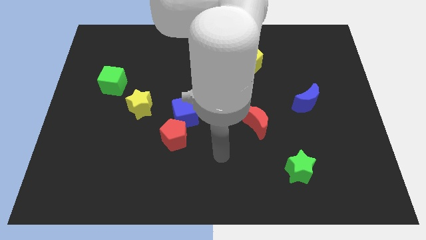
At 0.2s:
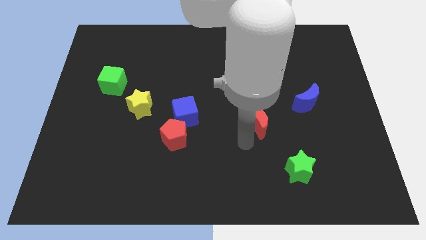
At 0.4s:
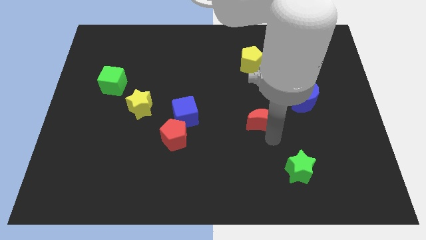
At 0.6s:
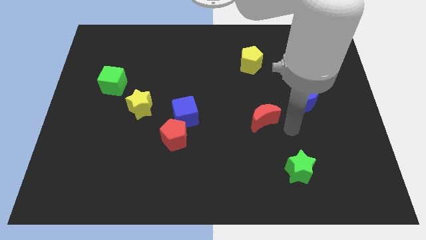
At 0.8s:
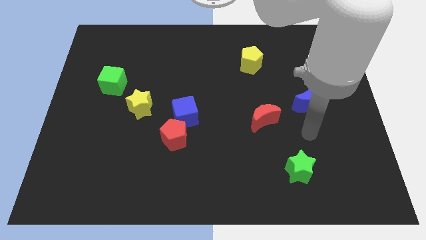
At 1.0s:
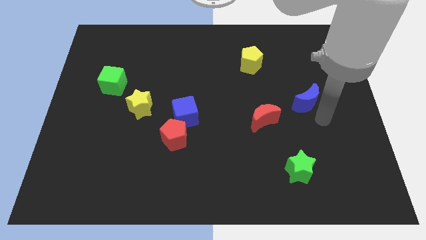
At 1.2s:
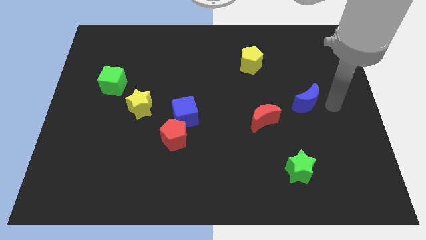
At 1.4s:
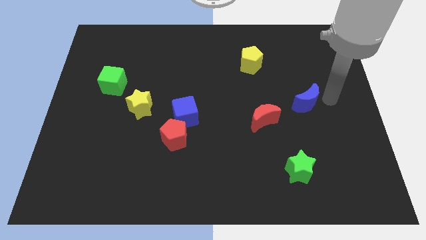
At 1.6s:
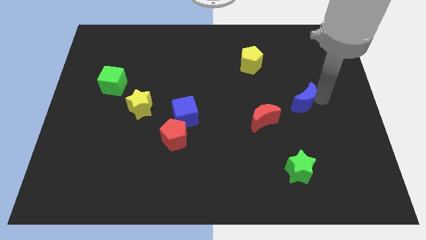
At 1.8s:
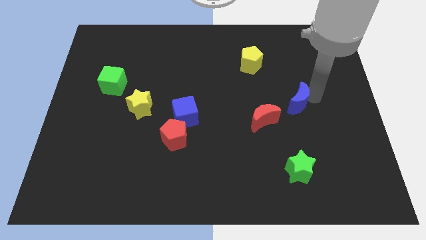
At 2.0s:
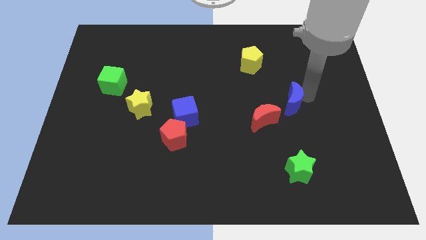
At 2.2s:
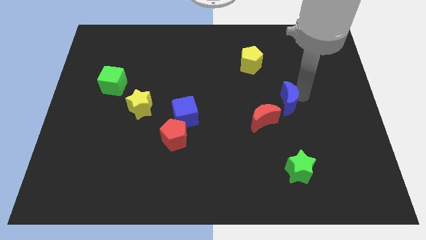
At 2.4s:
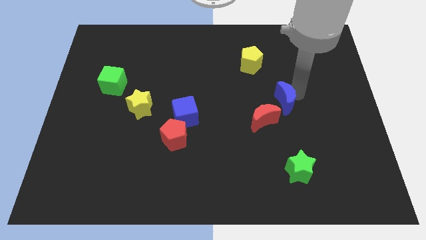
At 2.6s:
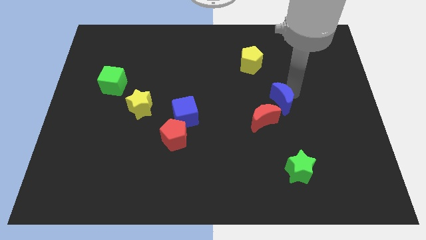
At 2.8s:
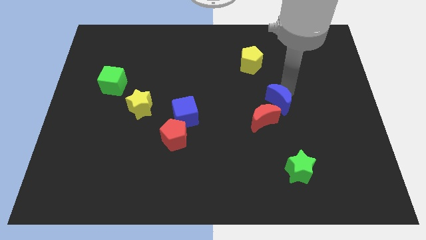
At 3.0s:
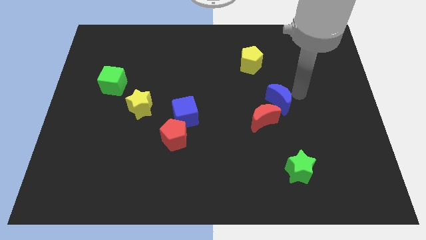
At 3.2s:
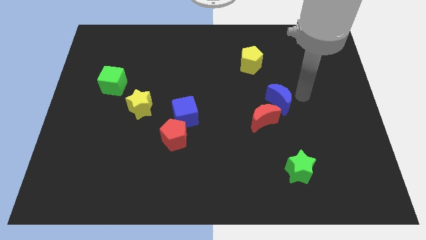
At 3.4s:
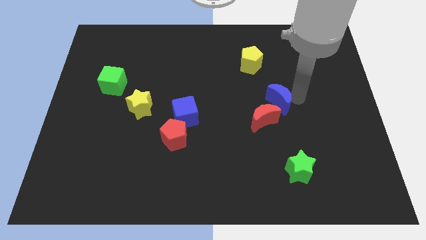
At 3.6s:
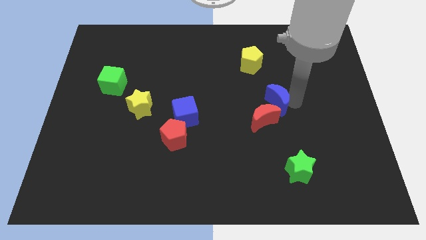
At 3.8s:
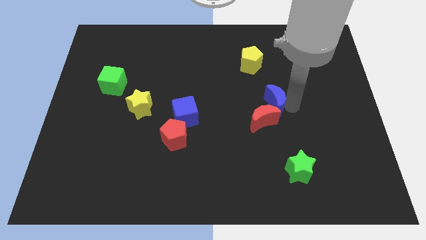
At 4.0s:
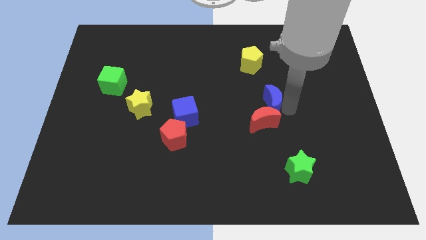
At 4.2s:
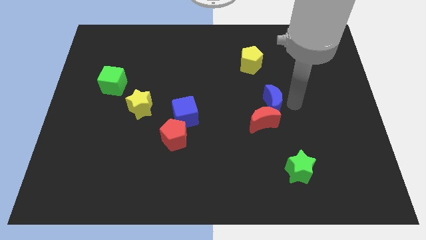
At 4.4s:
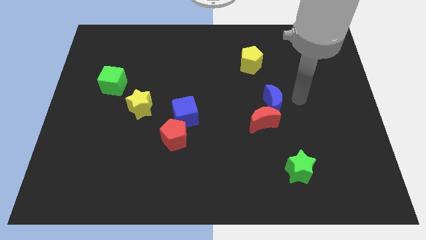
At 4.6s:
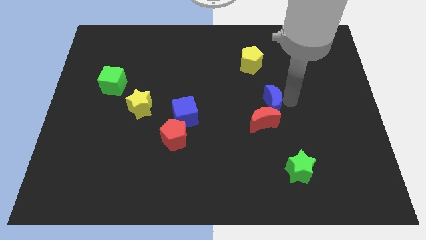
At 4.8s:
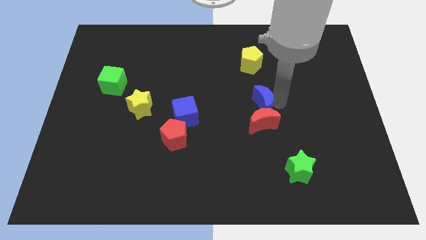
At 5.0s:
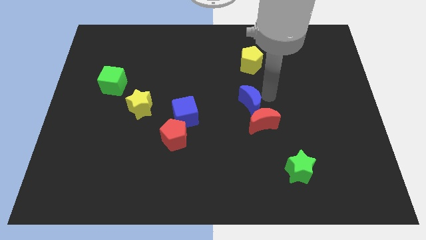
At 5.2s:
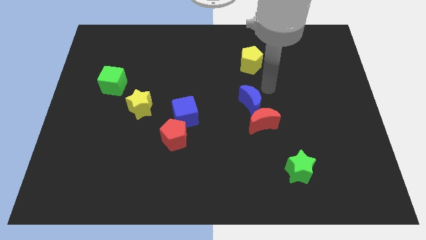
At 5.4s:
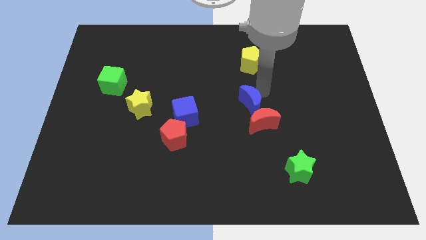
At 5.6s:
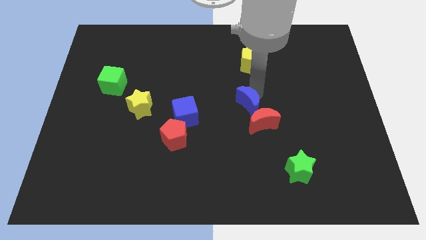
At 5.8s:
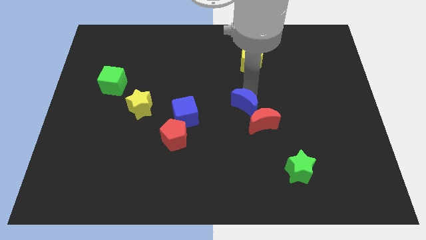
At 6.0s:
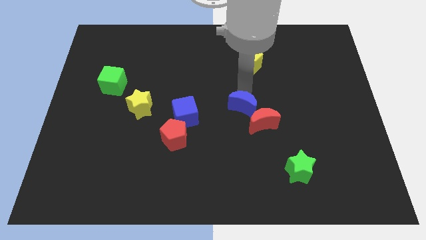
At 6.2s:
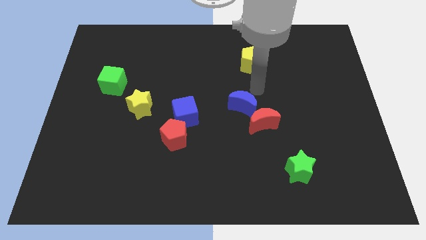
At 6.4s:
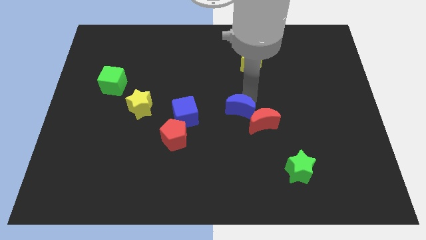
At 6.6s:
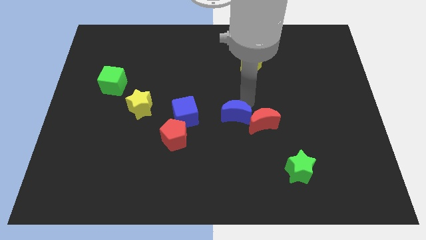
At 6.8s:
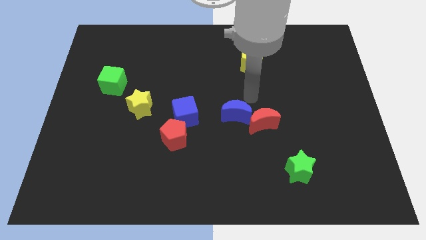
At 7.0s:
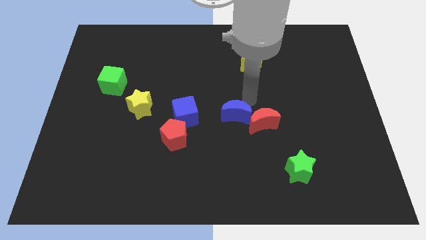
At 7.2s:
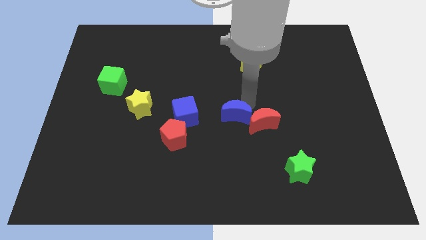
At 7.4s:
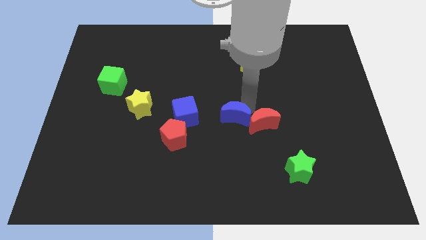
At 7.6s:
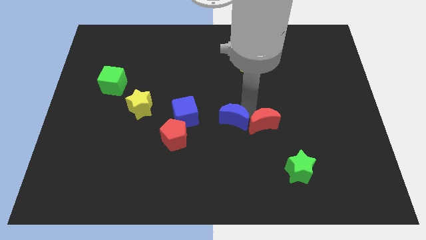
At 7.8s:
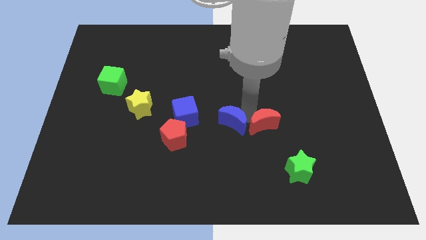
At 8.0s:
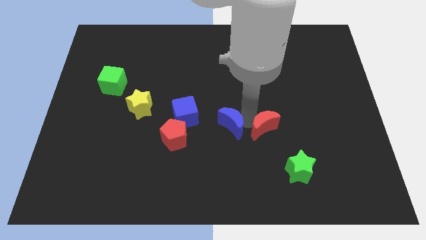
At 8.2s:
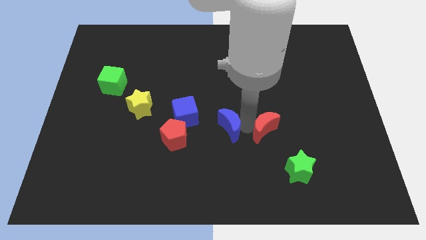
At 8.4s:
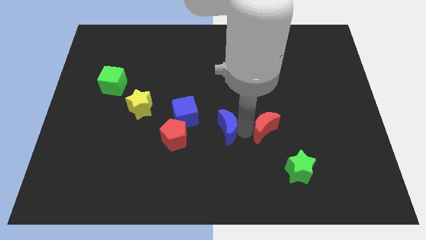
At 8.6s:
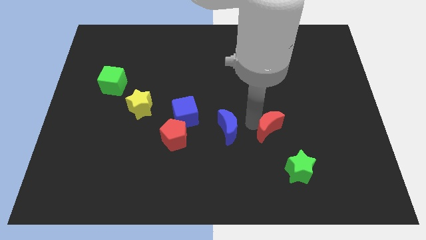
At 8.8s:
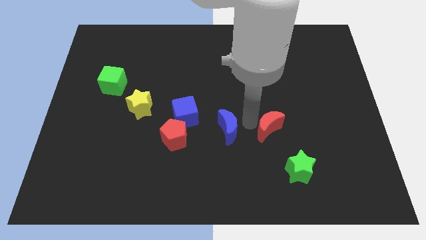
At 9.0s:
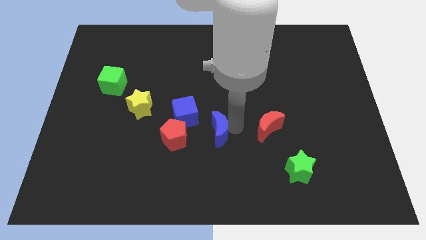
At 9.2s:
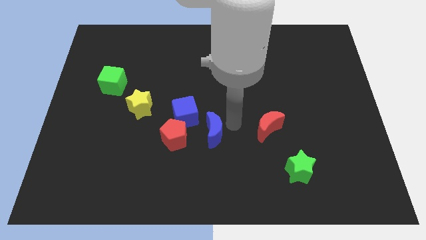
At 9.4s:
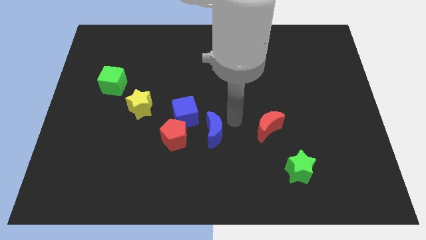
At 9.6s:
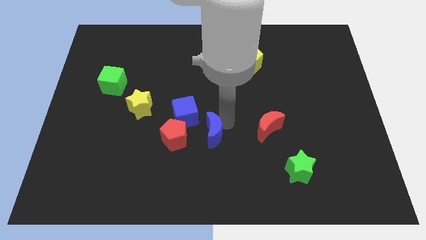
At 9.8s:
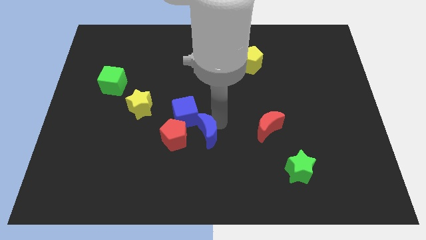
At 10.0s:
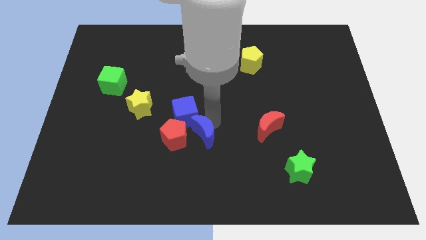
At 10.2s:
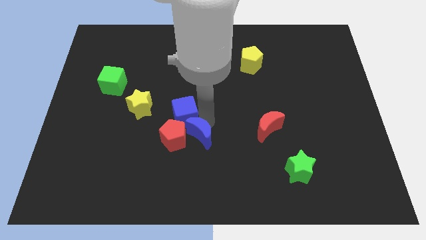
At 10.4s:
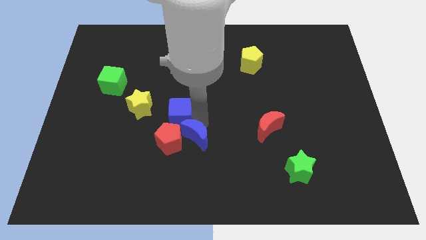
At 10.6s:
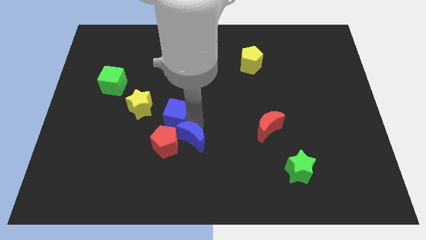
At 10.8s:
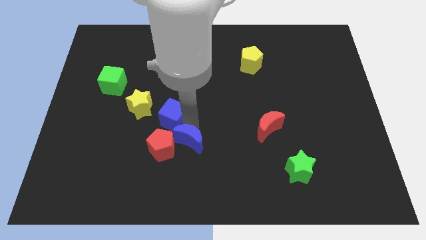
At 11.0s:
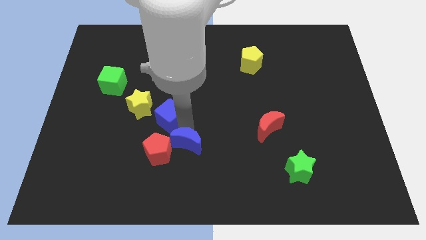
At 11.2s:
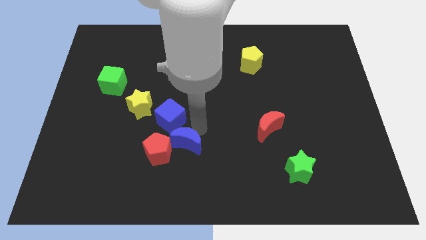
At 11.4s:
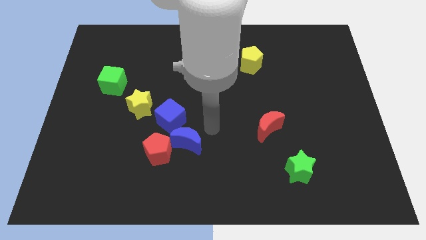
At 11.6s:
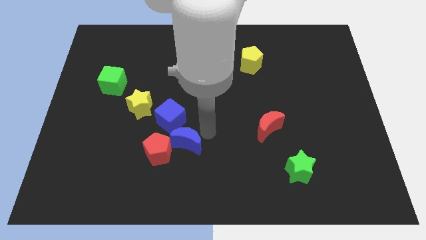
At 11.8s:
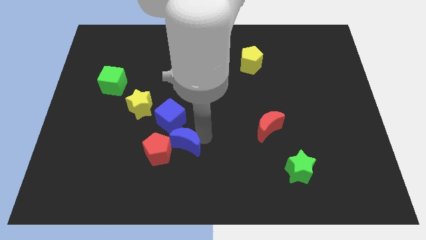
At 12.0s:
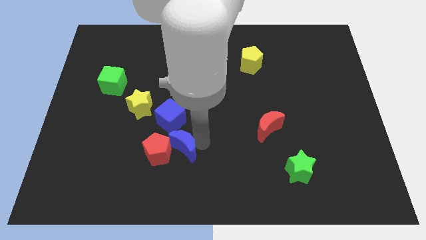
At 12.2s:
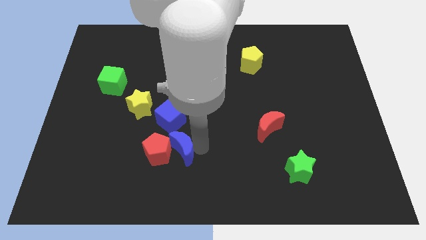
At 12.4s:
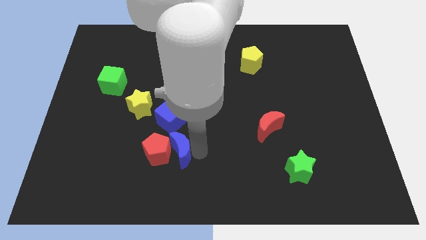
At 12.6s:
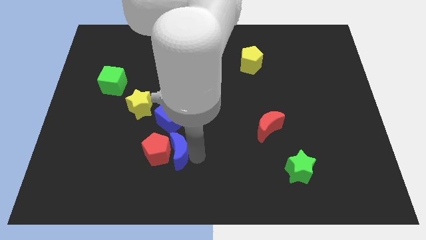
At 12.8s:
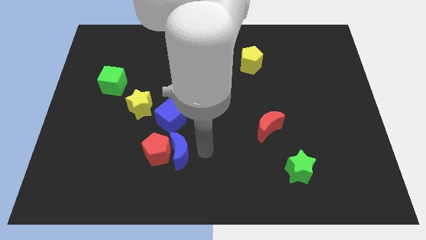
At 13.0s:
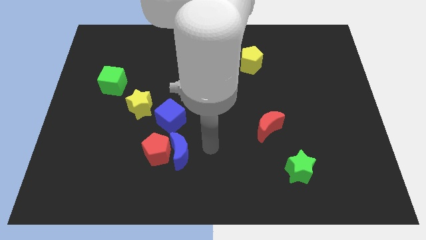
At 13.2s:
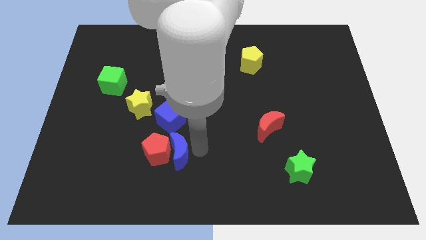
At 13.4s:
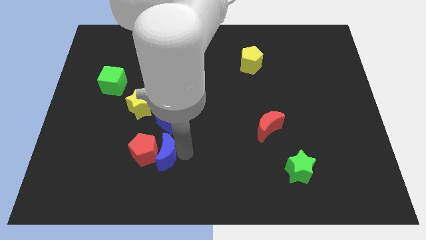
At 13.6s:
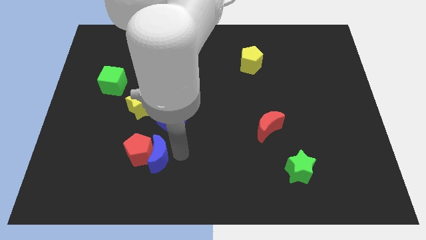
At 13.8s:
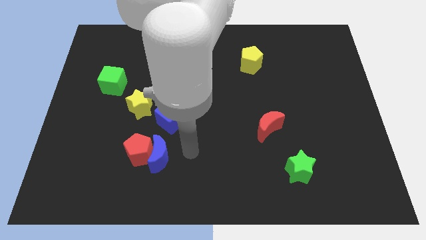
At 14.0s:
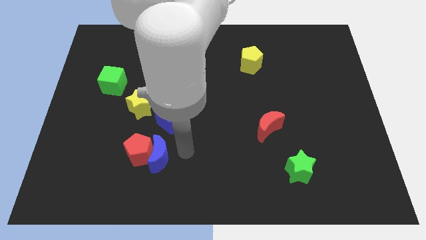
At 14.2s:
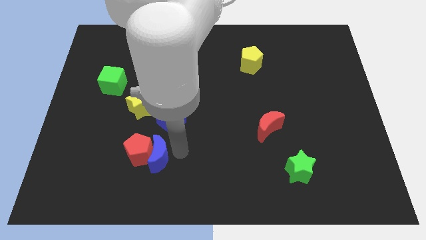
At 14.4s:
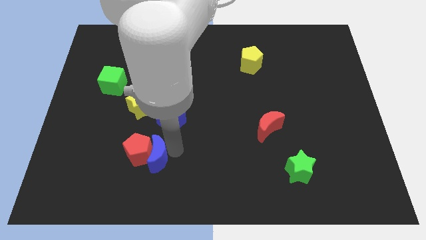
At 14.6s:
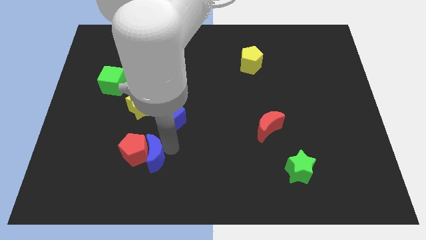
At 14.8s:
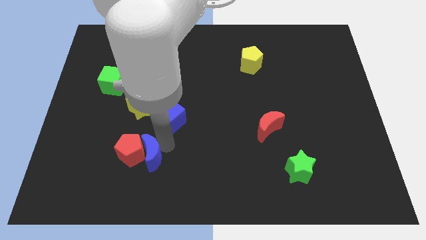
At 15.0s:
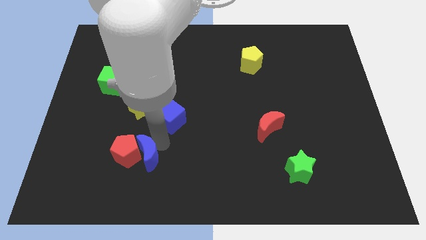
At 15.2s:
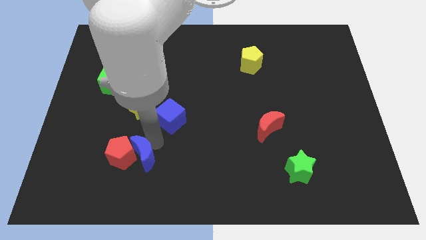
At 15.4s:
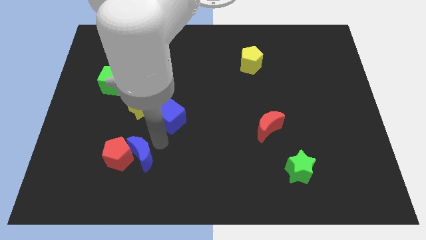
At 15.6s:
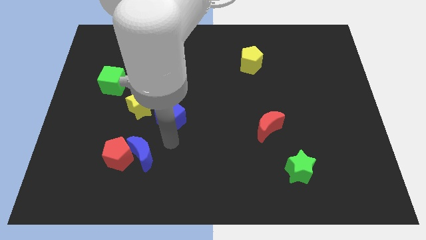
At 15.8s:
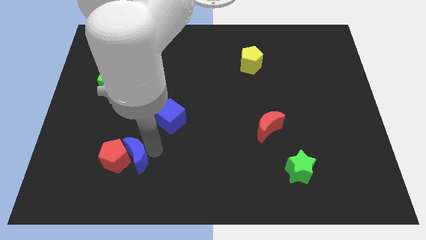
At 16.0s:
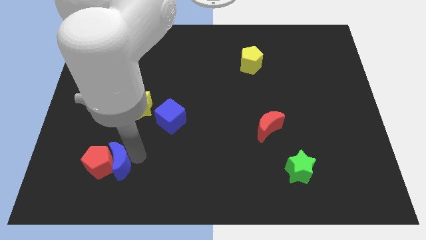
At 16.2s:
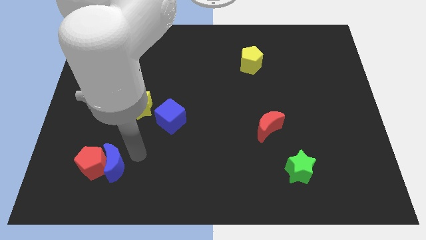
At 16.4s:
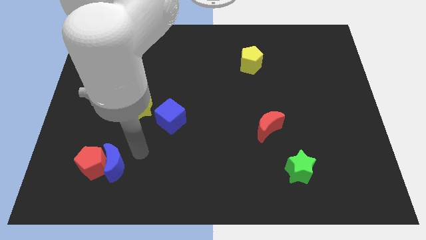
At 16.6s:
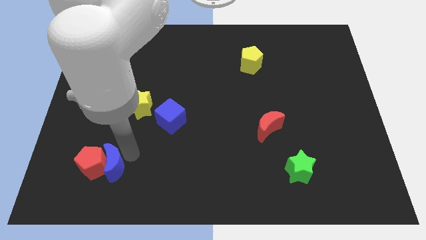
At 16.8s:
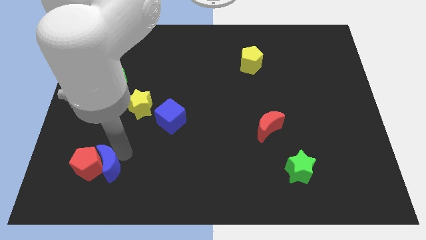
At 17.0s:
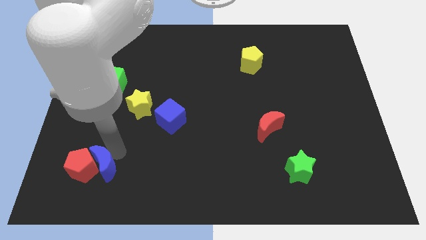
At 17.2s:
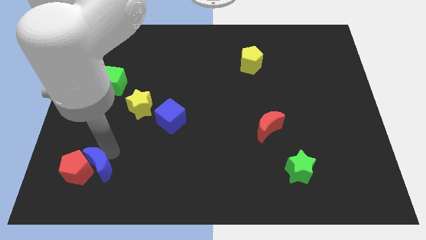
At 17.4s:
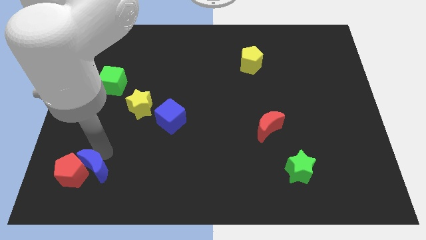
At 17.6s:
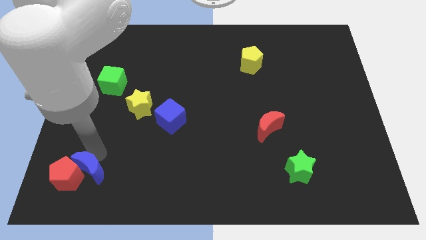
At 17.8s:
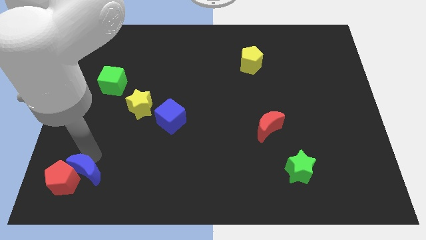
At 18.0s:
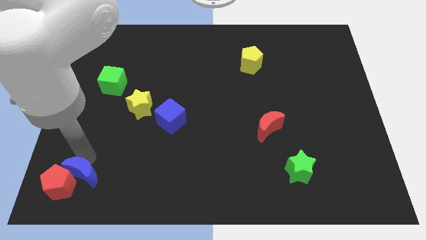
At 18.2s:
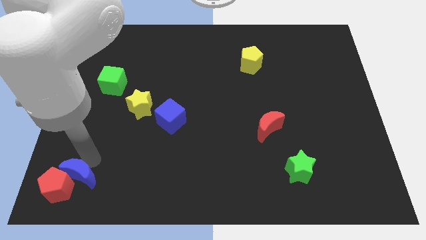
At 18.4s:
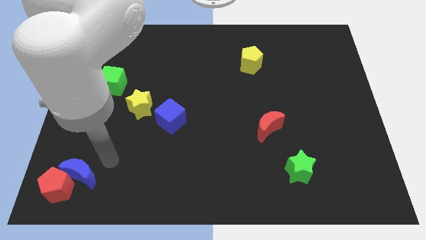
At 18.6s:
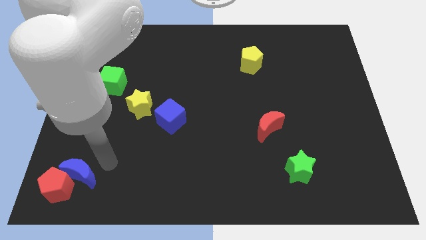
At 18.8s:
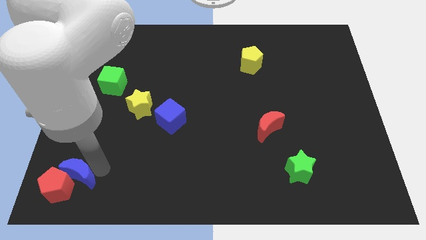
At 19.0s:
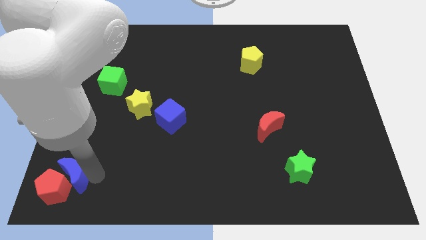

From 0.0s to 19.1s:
push the blue moon to the bottom left
